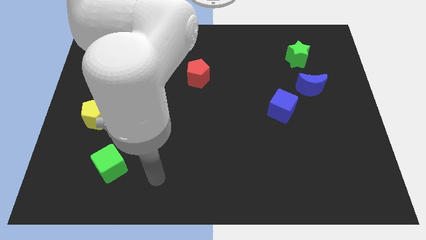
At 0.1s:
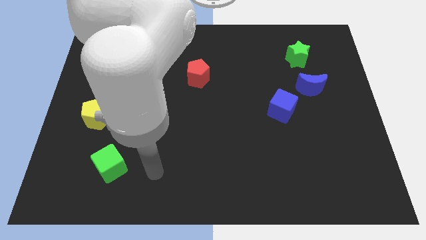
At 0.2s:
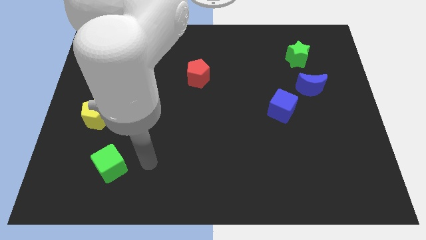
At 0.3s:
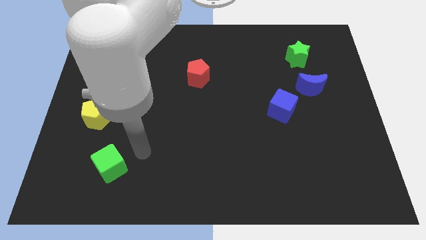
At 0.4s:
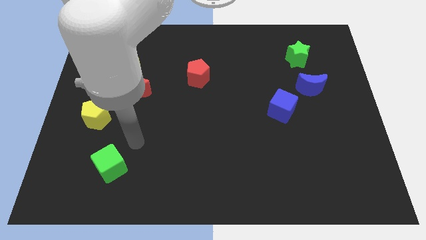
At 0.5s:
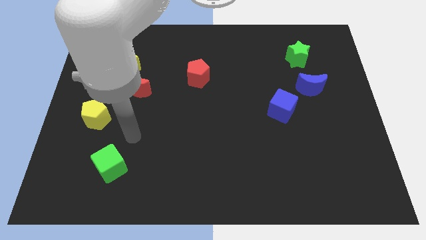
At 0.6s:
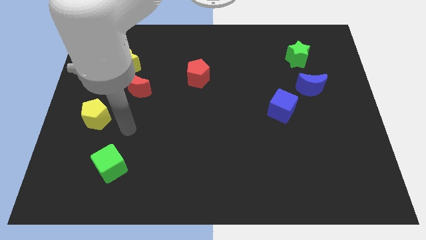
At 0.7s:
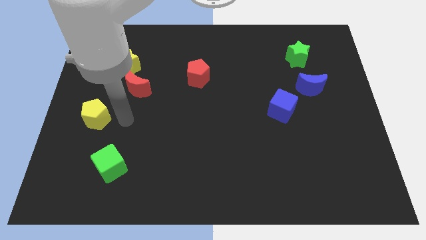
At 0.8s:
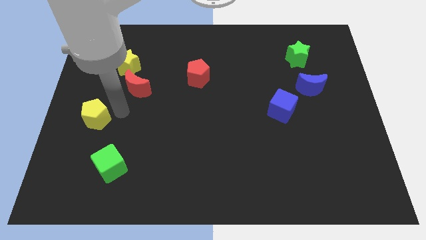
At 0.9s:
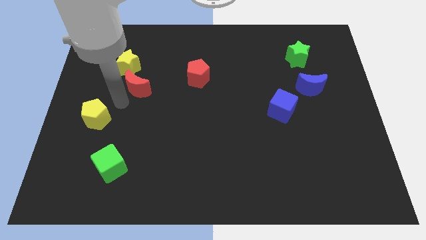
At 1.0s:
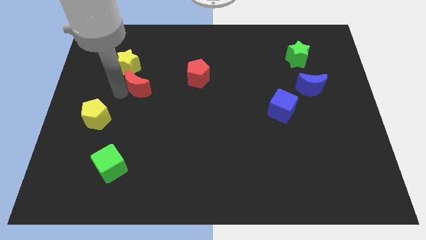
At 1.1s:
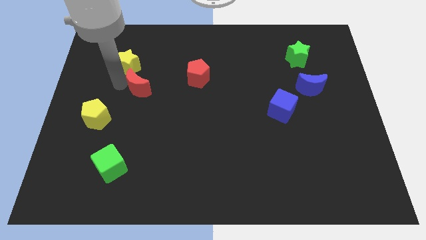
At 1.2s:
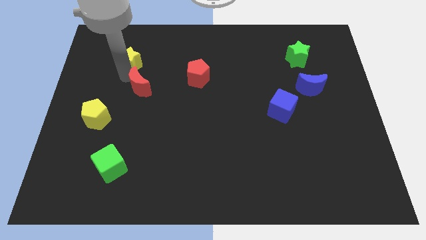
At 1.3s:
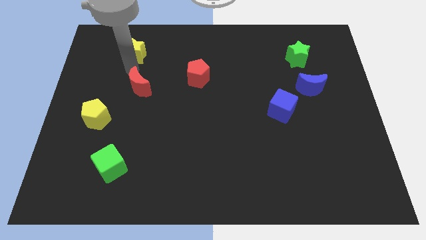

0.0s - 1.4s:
pull the red moon apart from the yellow star

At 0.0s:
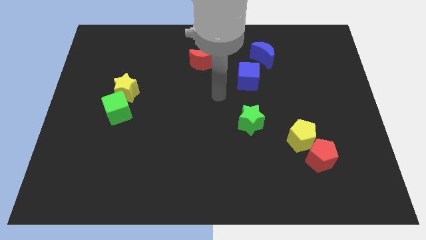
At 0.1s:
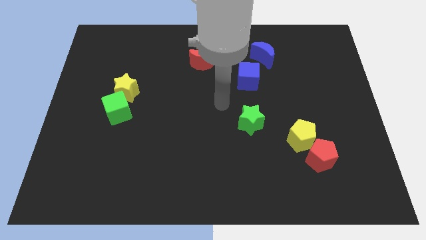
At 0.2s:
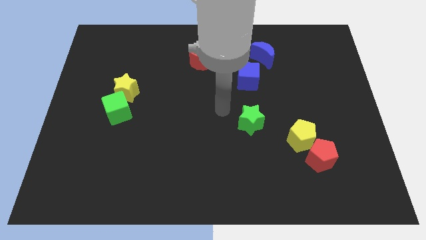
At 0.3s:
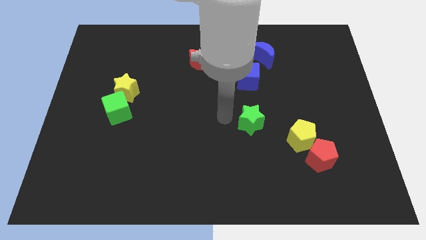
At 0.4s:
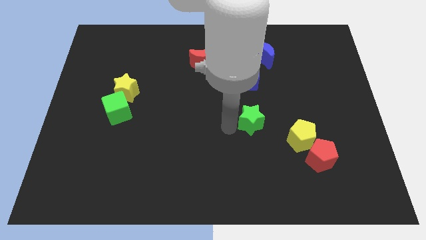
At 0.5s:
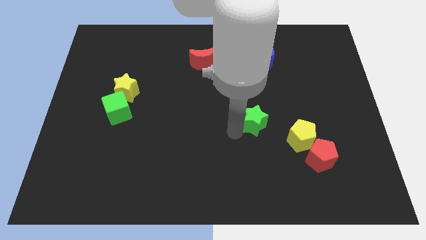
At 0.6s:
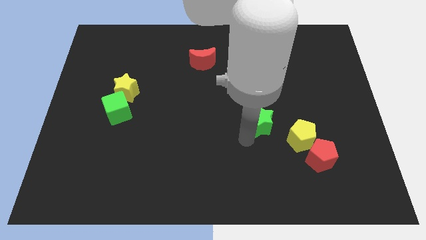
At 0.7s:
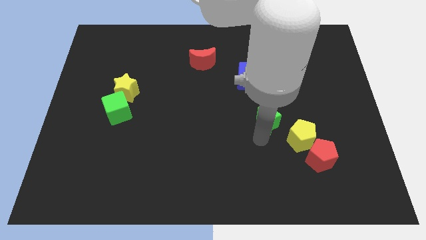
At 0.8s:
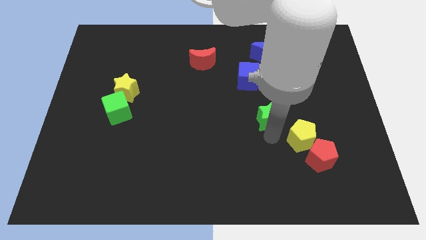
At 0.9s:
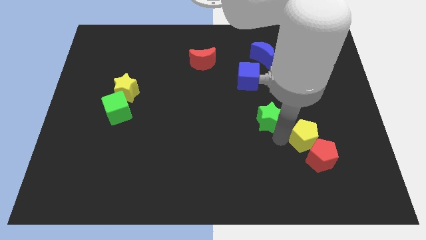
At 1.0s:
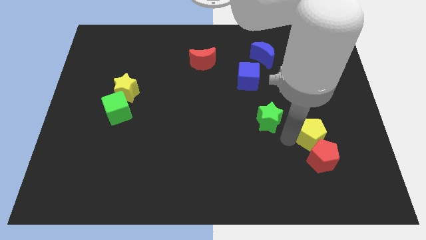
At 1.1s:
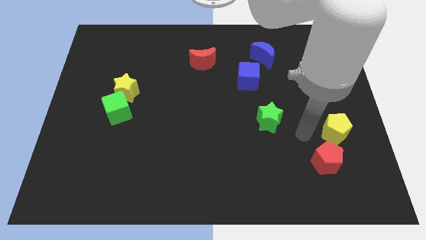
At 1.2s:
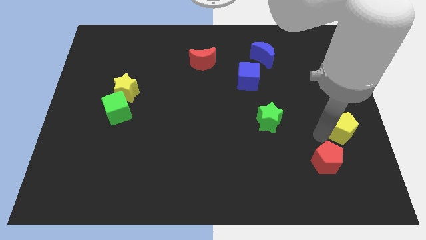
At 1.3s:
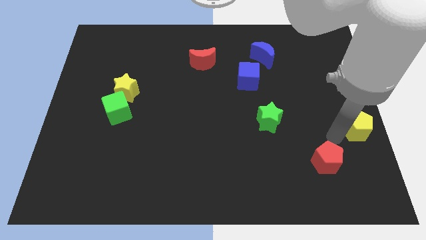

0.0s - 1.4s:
move the red pentagon away from the yellow pentagon

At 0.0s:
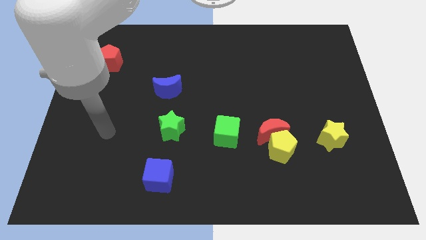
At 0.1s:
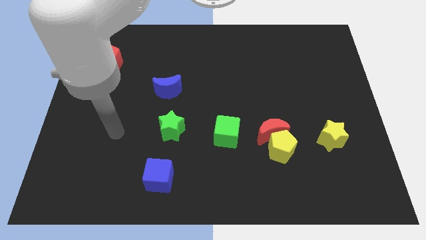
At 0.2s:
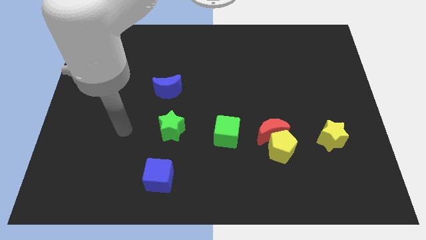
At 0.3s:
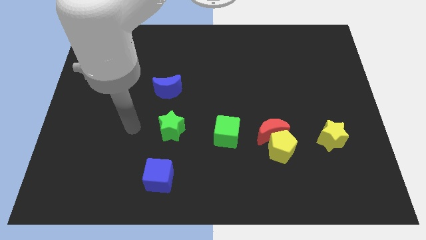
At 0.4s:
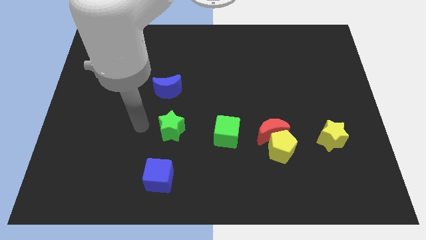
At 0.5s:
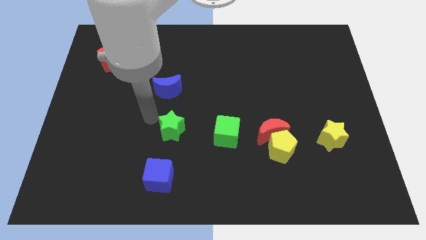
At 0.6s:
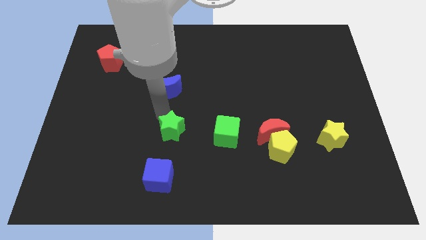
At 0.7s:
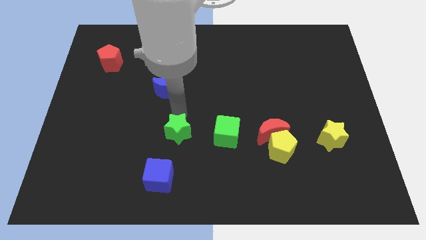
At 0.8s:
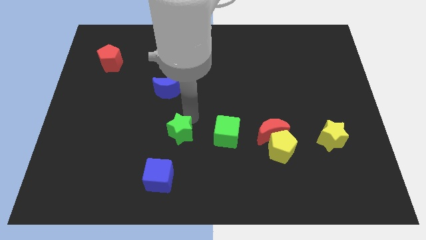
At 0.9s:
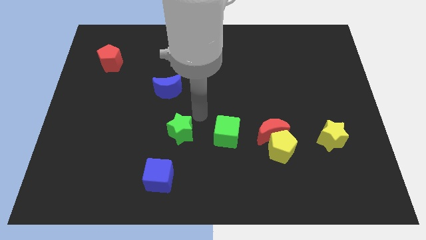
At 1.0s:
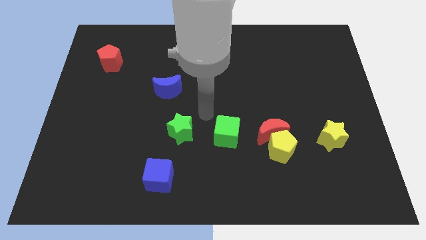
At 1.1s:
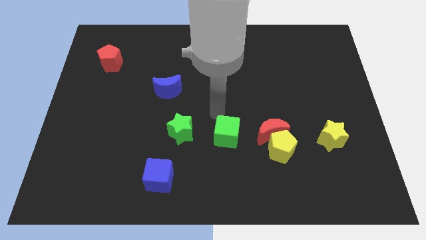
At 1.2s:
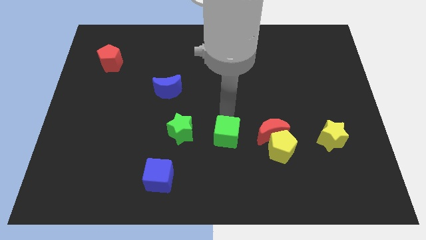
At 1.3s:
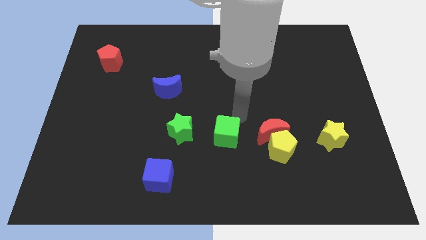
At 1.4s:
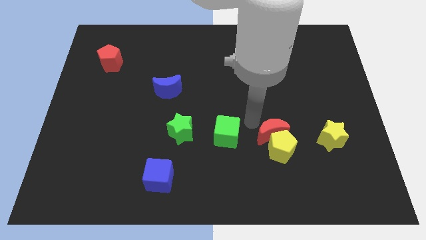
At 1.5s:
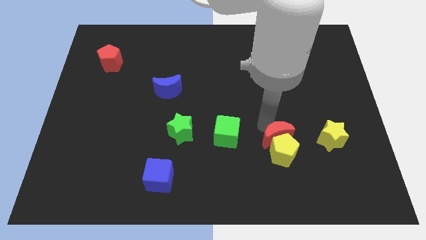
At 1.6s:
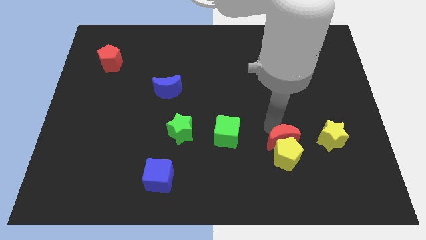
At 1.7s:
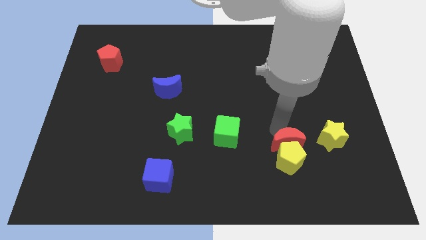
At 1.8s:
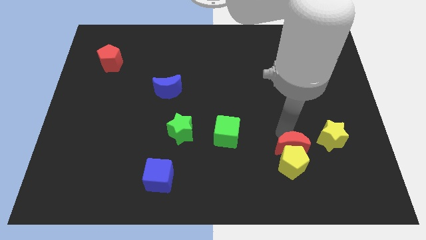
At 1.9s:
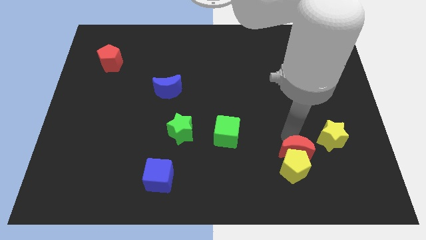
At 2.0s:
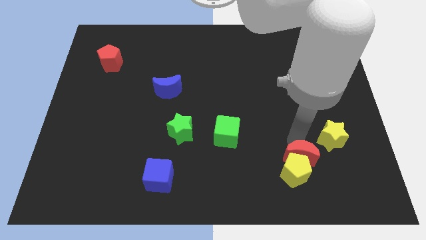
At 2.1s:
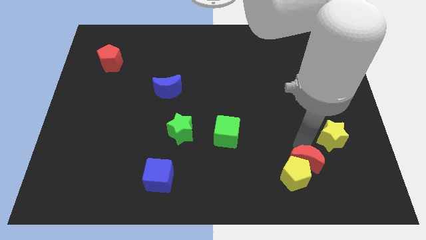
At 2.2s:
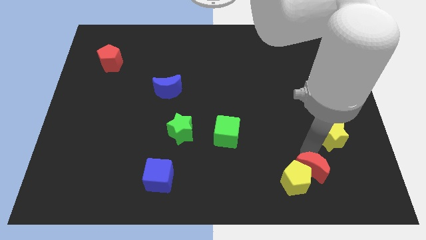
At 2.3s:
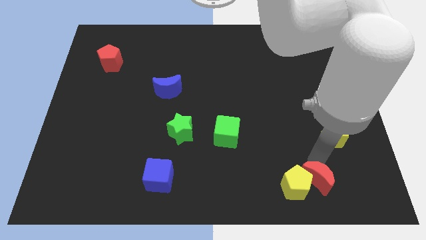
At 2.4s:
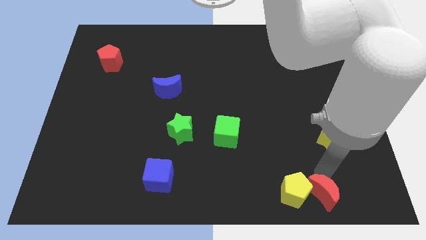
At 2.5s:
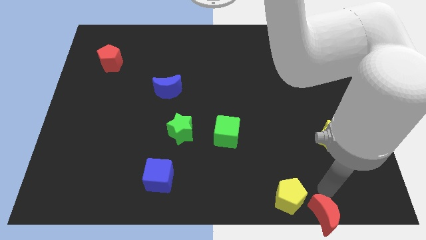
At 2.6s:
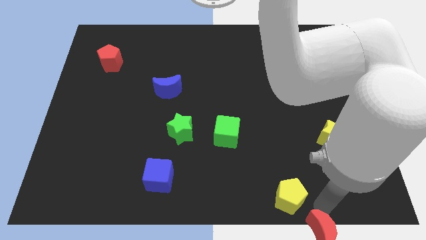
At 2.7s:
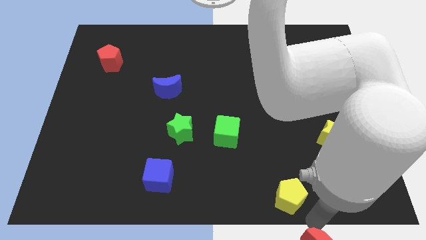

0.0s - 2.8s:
pull the yellow pentagon apart from the red moon

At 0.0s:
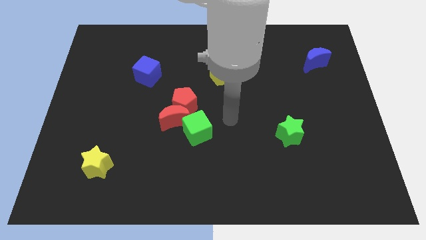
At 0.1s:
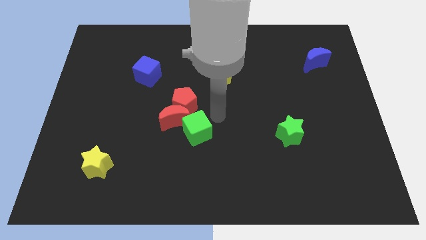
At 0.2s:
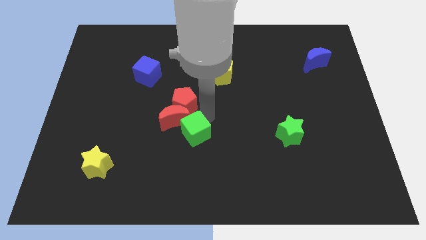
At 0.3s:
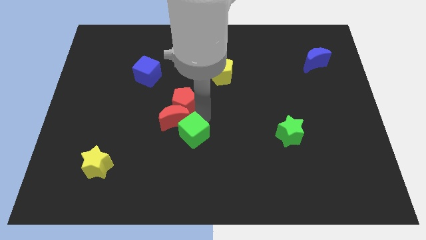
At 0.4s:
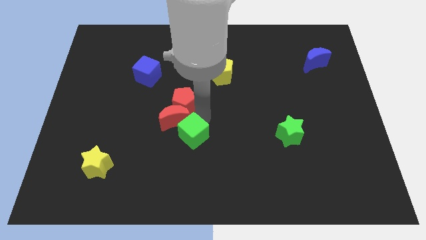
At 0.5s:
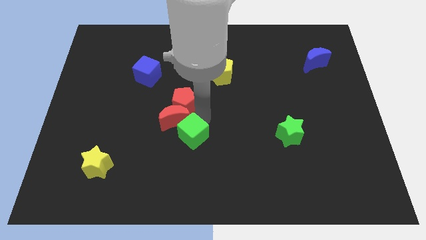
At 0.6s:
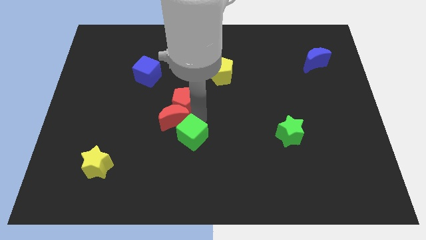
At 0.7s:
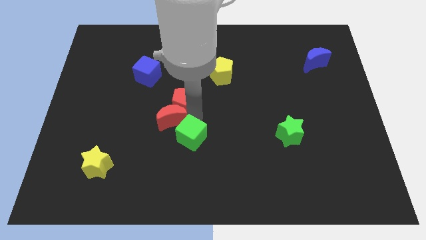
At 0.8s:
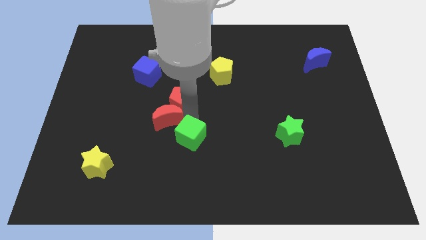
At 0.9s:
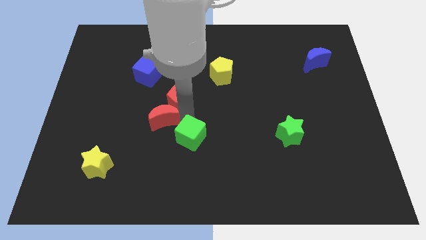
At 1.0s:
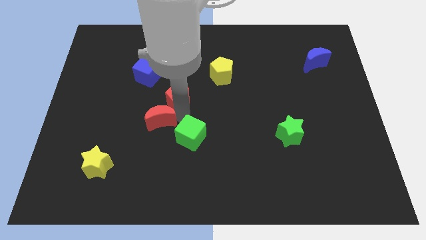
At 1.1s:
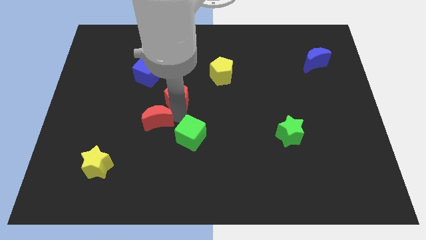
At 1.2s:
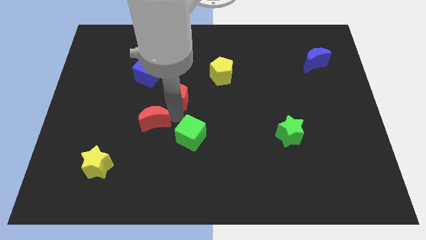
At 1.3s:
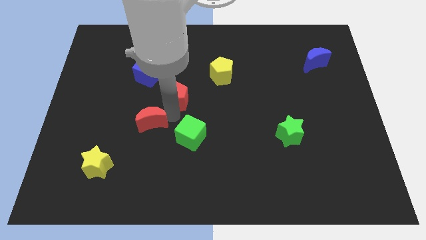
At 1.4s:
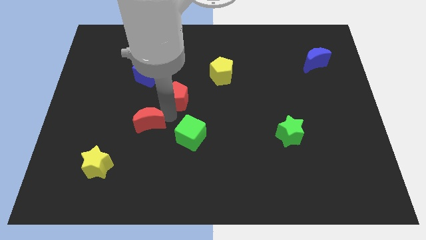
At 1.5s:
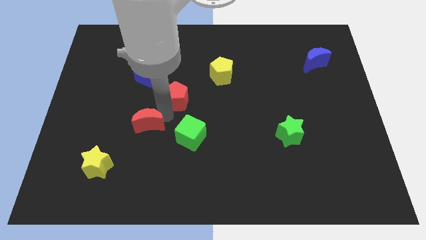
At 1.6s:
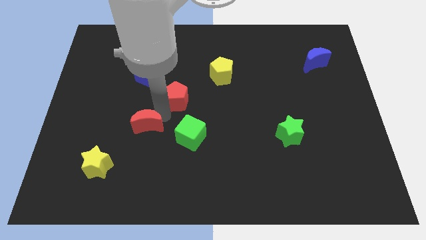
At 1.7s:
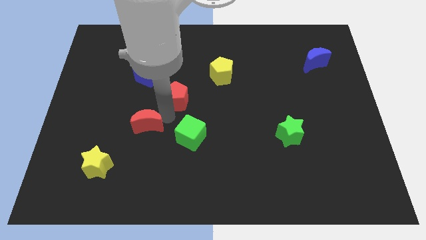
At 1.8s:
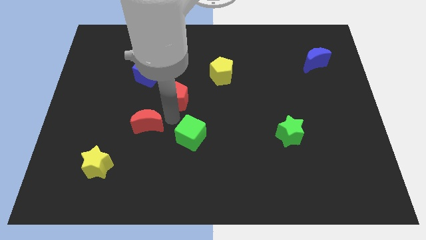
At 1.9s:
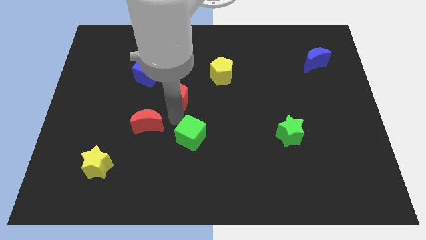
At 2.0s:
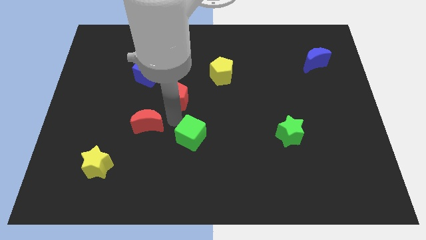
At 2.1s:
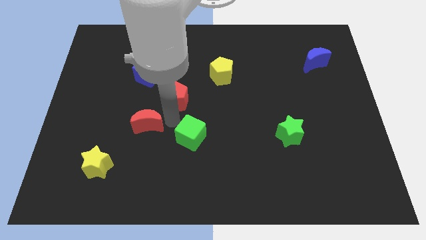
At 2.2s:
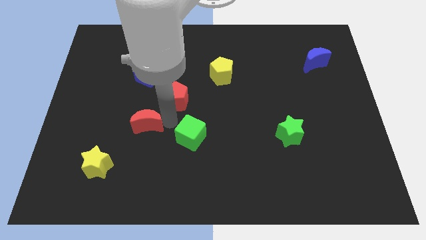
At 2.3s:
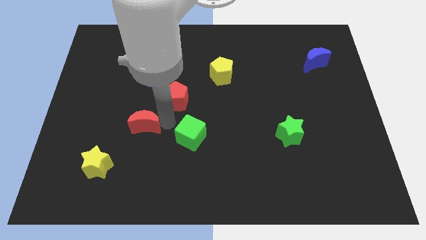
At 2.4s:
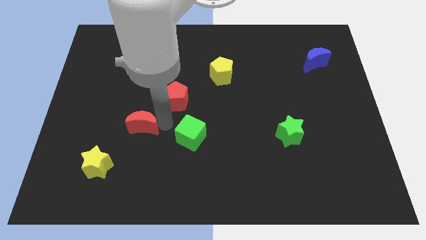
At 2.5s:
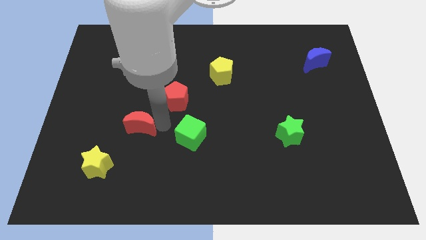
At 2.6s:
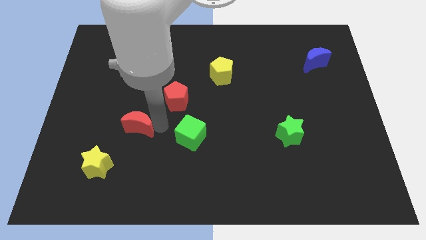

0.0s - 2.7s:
pull the red moon apart from the red pentagon and green cube

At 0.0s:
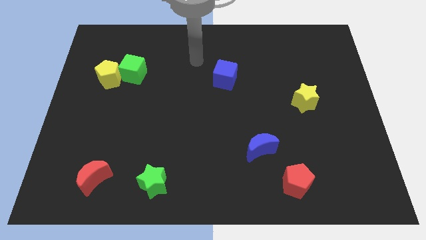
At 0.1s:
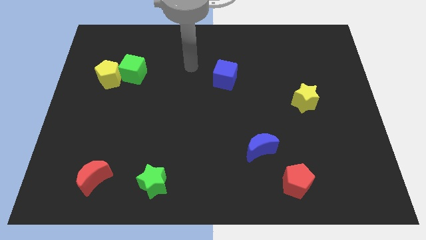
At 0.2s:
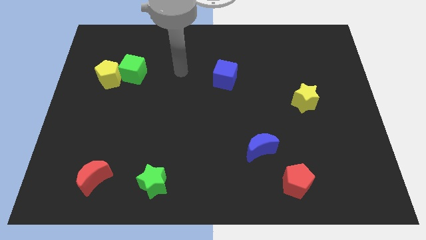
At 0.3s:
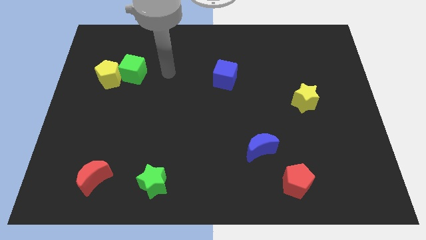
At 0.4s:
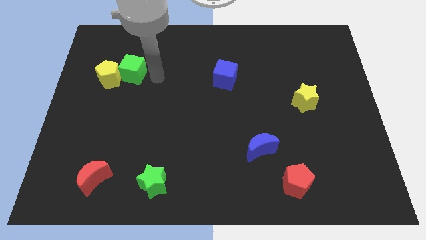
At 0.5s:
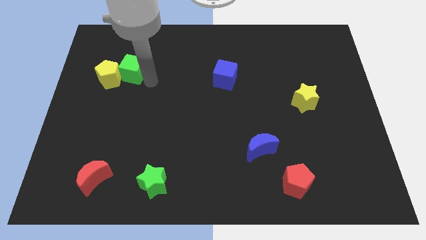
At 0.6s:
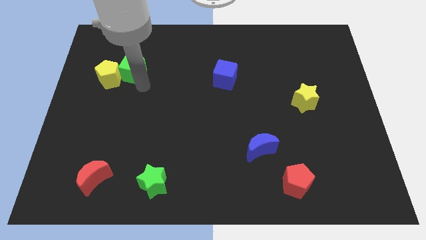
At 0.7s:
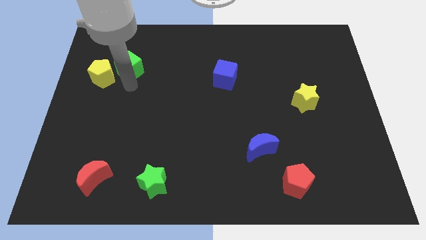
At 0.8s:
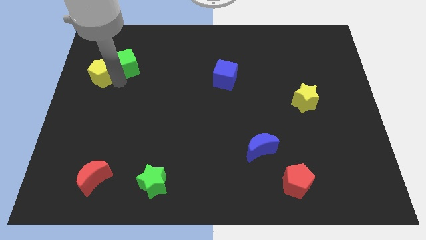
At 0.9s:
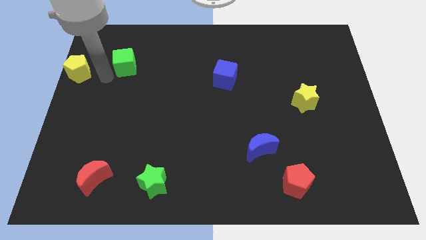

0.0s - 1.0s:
separate the green cube from the yellow pentagon
